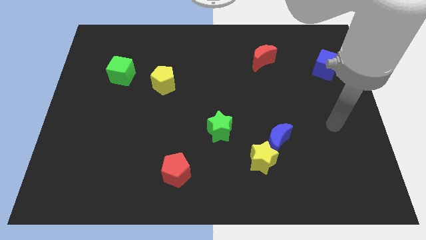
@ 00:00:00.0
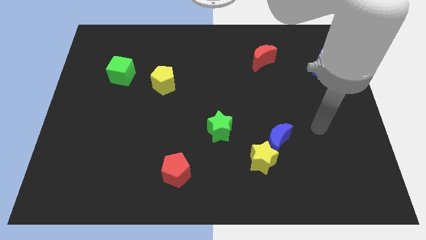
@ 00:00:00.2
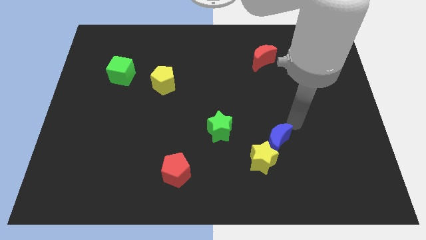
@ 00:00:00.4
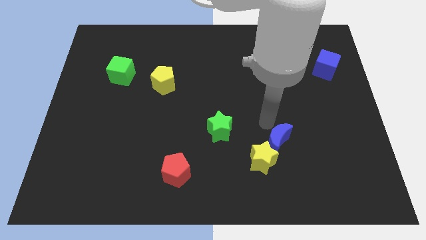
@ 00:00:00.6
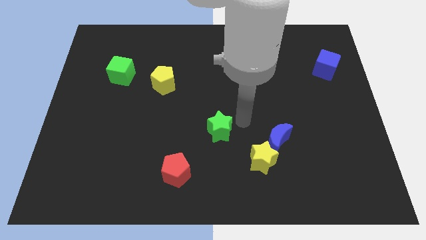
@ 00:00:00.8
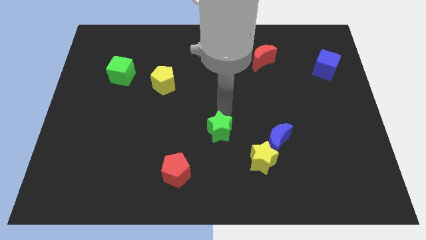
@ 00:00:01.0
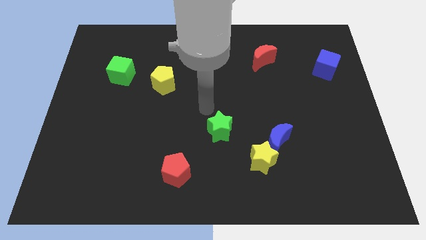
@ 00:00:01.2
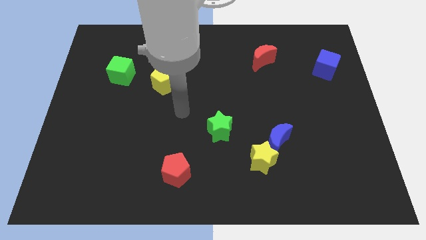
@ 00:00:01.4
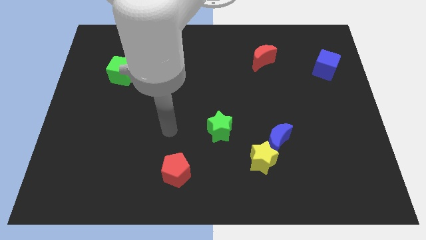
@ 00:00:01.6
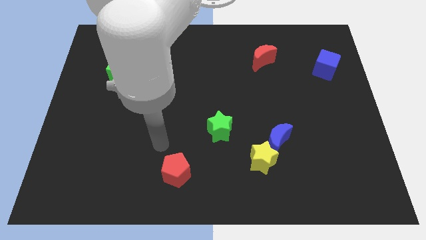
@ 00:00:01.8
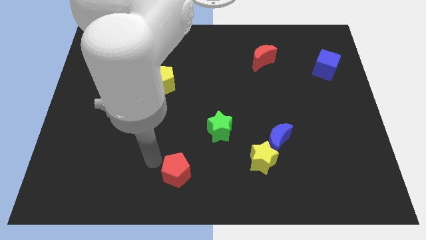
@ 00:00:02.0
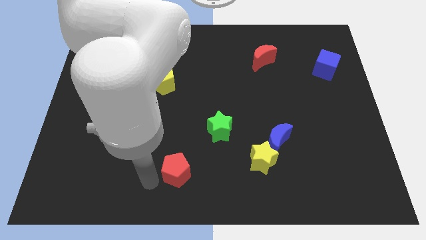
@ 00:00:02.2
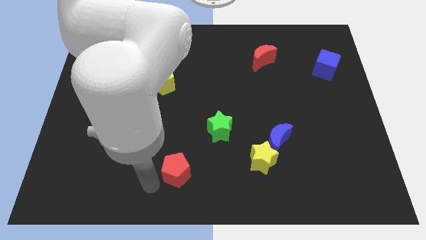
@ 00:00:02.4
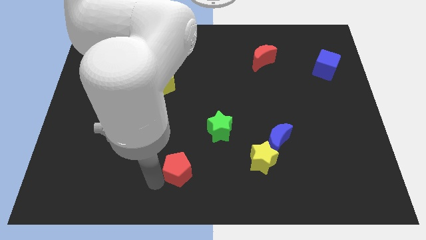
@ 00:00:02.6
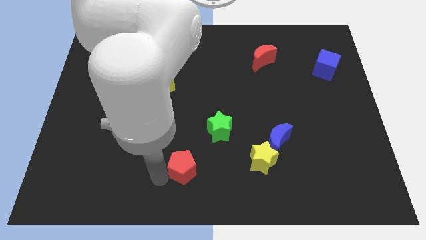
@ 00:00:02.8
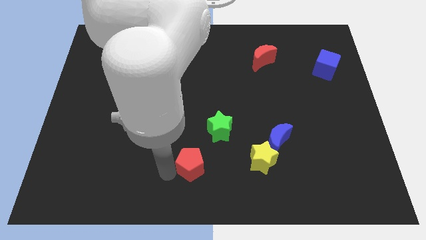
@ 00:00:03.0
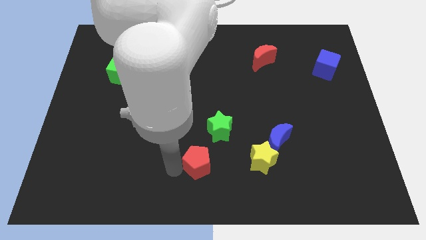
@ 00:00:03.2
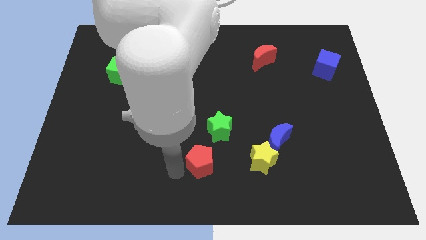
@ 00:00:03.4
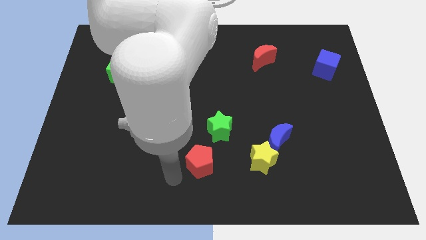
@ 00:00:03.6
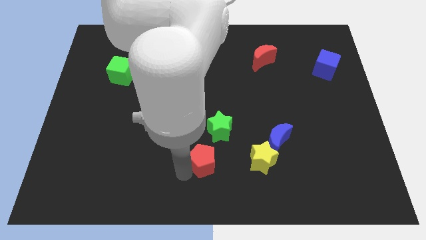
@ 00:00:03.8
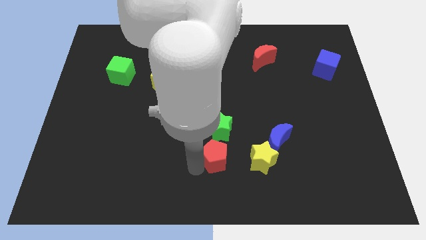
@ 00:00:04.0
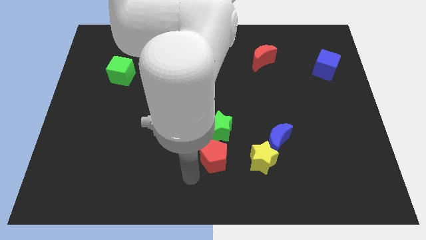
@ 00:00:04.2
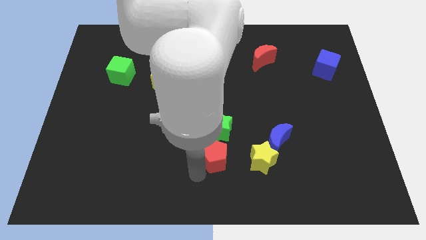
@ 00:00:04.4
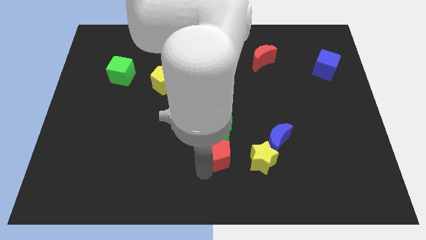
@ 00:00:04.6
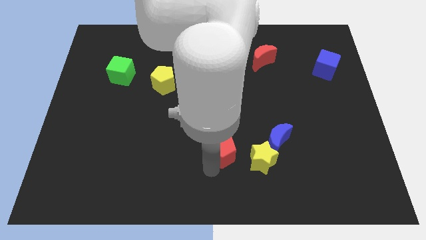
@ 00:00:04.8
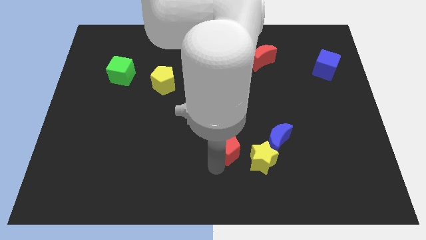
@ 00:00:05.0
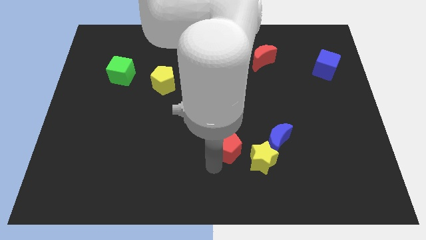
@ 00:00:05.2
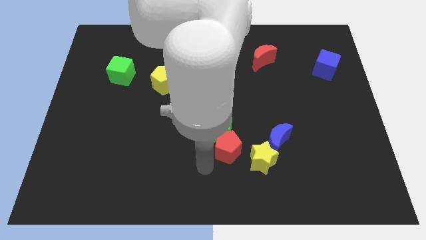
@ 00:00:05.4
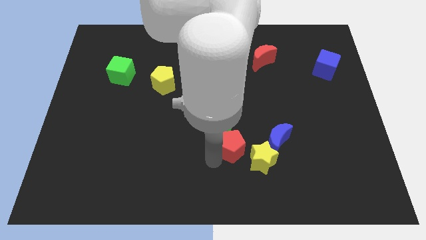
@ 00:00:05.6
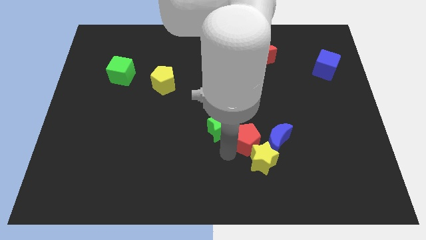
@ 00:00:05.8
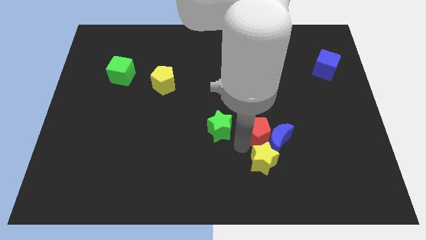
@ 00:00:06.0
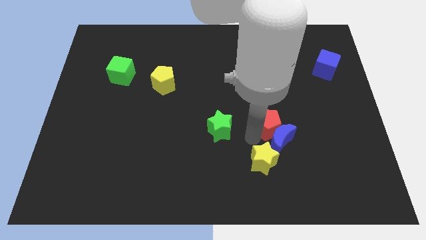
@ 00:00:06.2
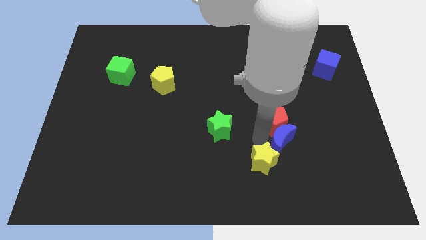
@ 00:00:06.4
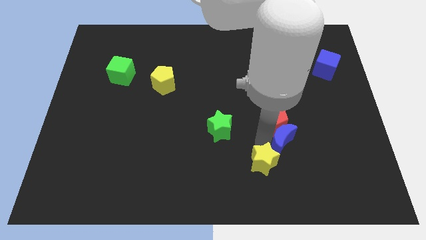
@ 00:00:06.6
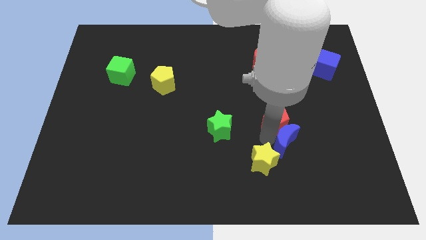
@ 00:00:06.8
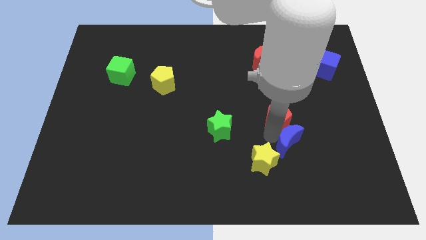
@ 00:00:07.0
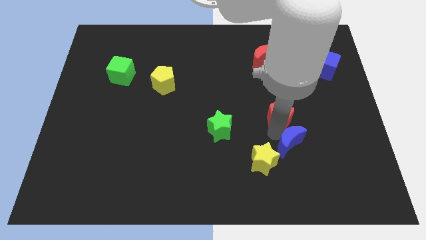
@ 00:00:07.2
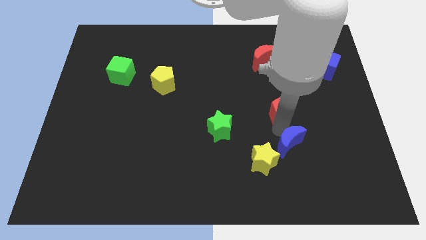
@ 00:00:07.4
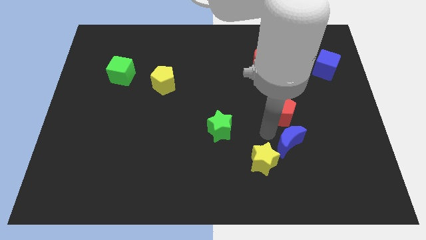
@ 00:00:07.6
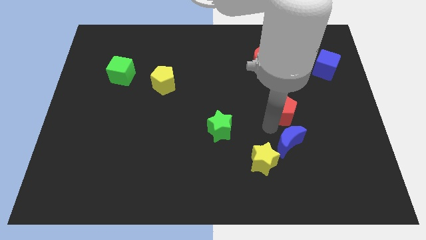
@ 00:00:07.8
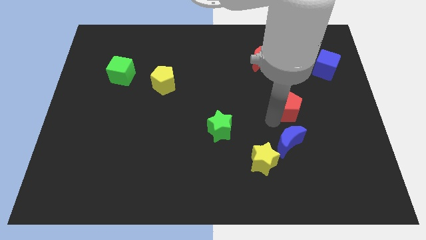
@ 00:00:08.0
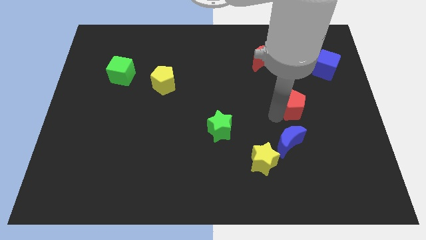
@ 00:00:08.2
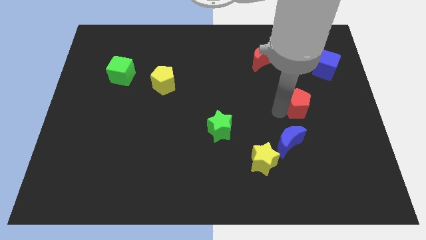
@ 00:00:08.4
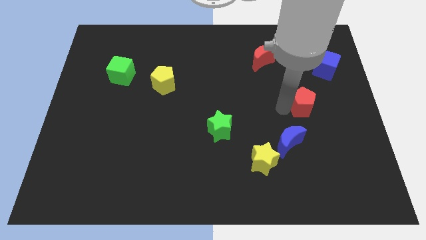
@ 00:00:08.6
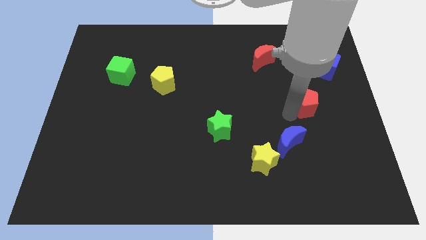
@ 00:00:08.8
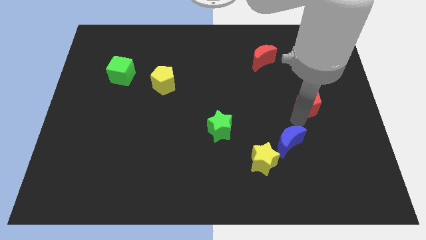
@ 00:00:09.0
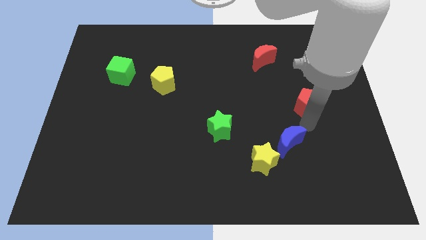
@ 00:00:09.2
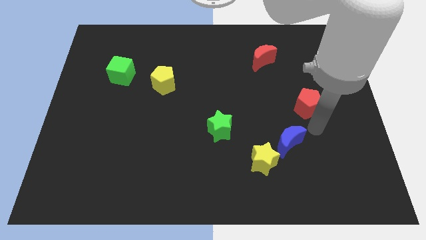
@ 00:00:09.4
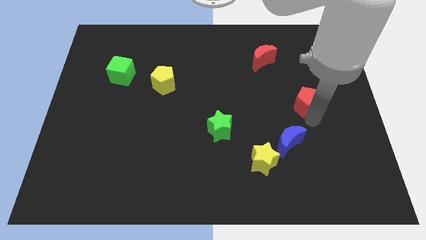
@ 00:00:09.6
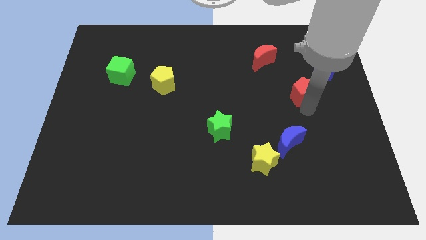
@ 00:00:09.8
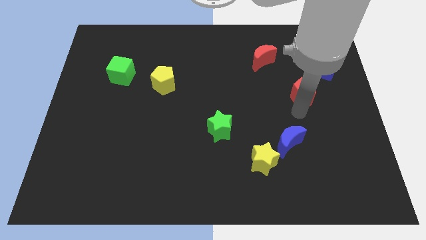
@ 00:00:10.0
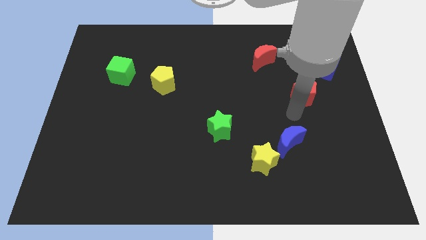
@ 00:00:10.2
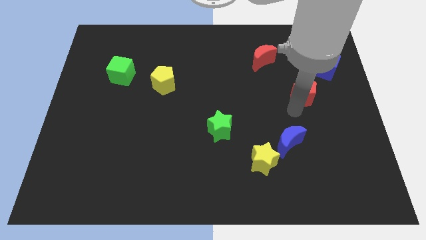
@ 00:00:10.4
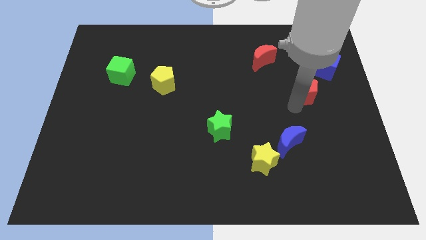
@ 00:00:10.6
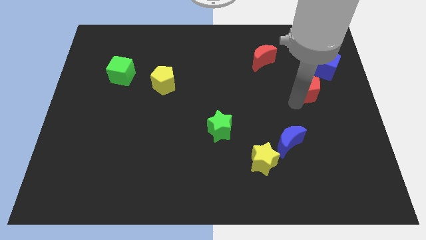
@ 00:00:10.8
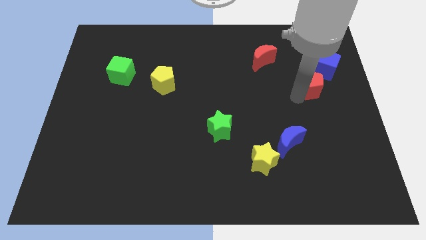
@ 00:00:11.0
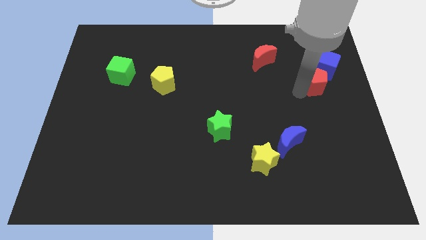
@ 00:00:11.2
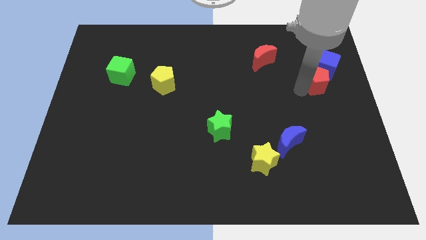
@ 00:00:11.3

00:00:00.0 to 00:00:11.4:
move the red pentagon next to the blue cube

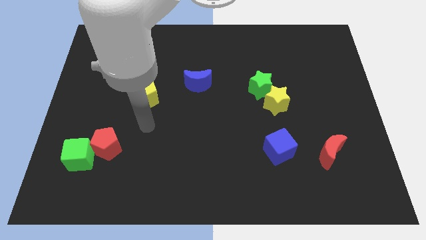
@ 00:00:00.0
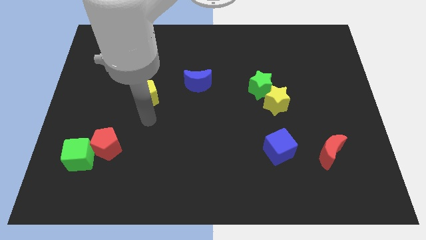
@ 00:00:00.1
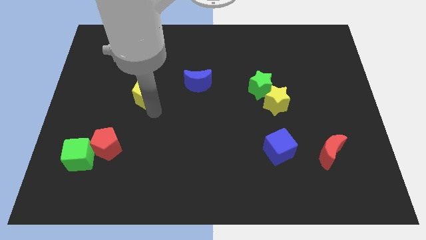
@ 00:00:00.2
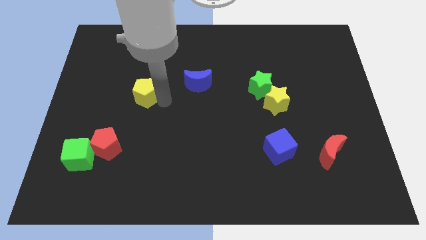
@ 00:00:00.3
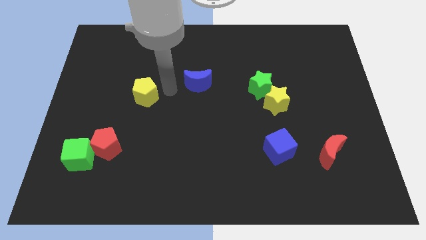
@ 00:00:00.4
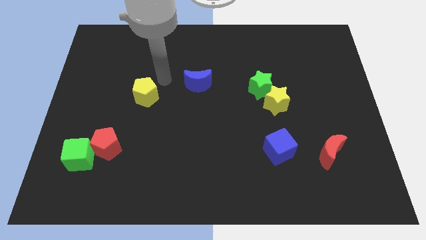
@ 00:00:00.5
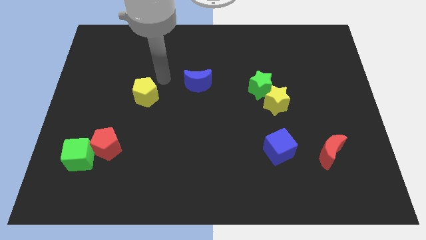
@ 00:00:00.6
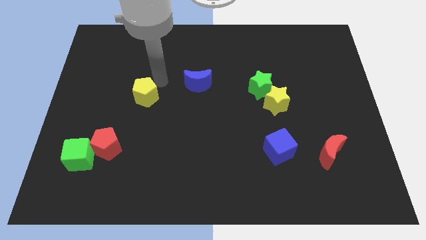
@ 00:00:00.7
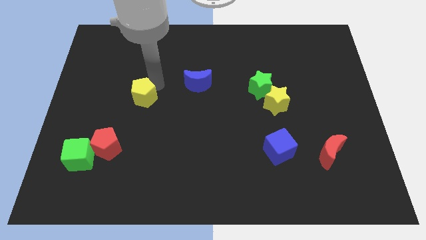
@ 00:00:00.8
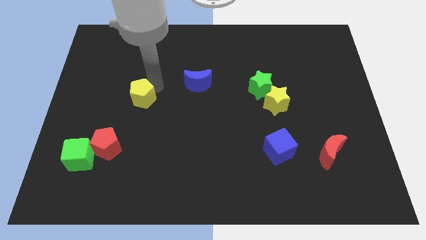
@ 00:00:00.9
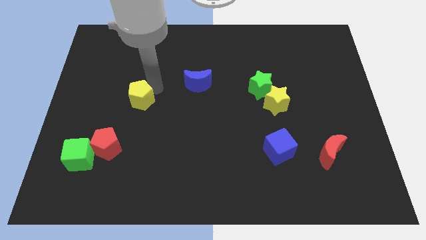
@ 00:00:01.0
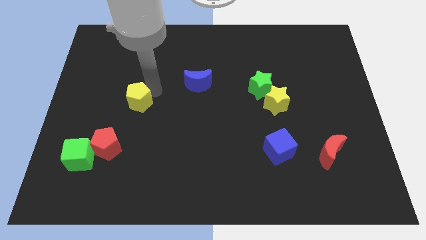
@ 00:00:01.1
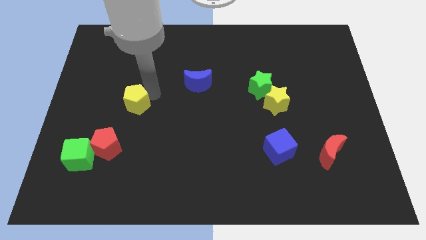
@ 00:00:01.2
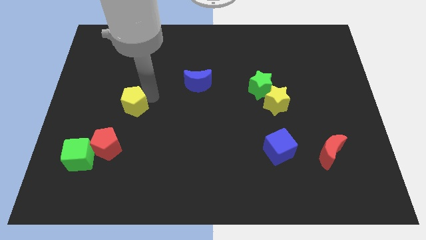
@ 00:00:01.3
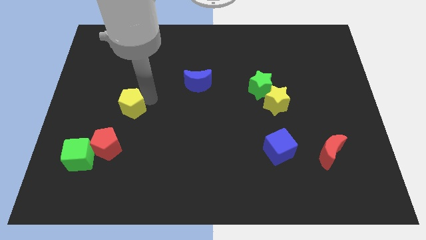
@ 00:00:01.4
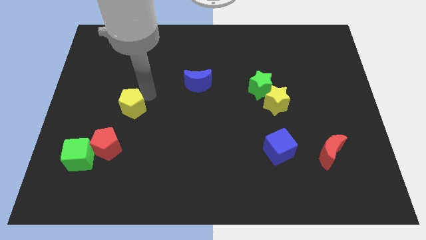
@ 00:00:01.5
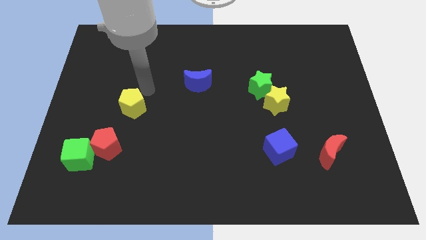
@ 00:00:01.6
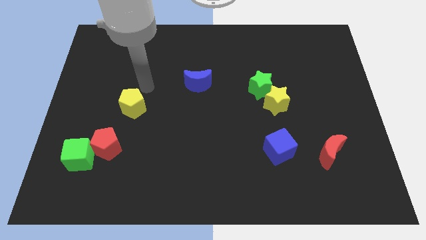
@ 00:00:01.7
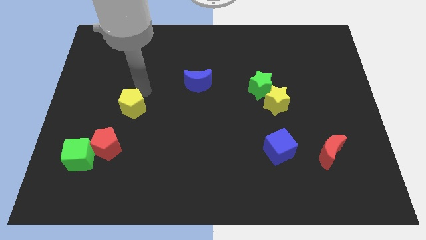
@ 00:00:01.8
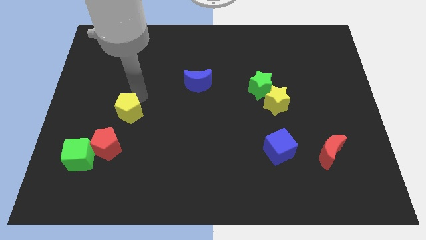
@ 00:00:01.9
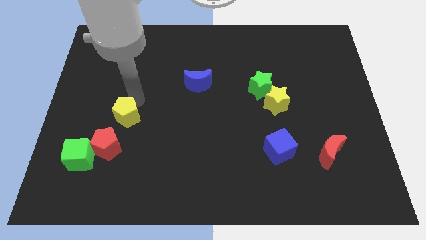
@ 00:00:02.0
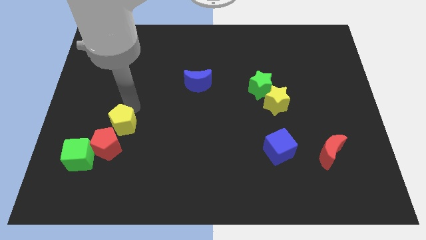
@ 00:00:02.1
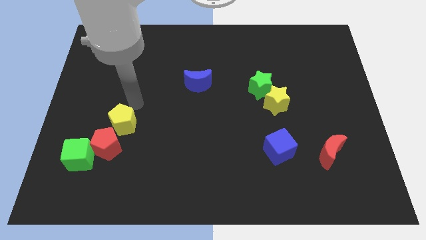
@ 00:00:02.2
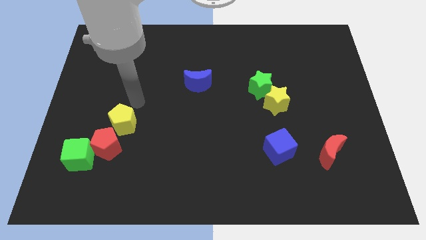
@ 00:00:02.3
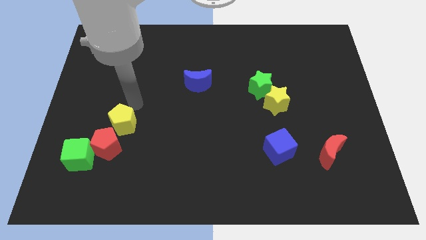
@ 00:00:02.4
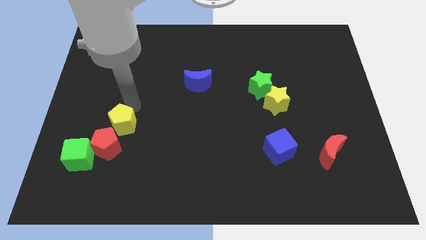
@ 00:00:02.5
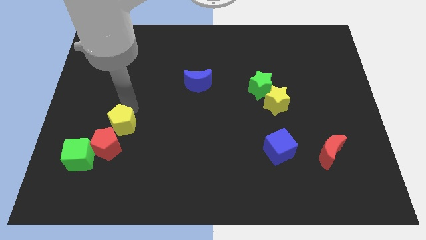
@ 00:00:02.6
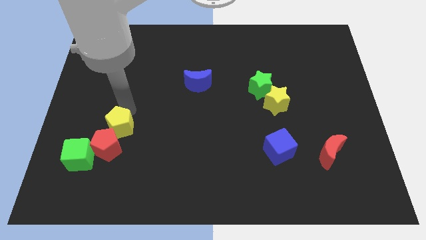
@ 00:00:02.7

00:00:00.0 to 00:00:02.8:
slide the yellow pentagon to the red pentagon
